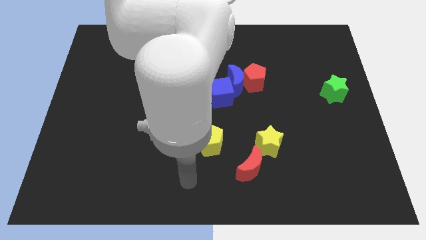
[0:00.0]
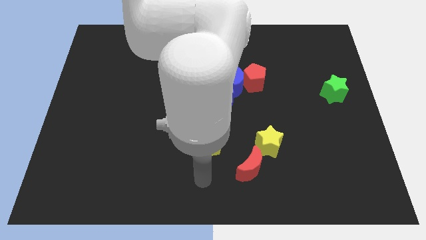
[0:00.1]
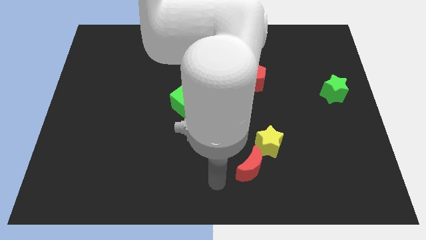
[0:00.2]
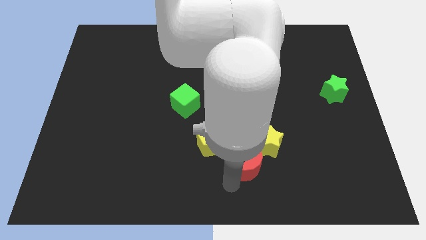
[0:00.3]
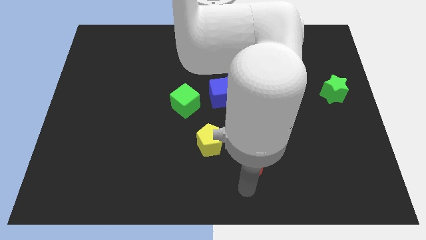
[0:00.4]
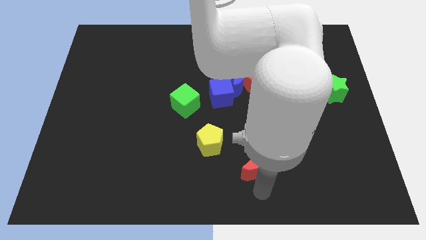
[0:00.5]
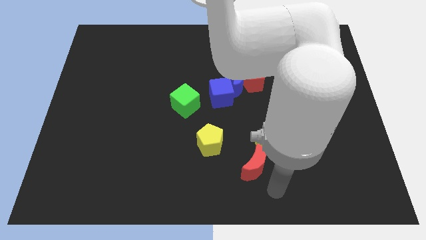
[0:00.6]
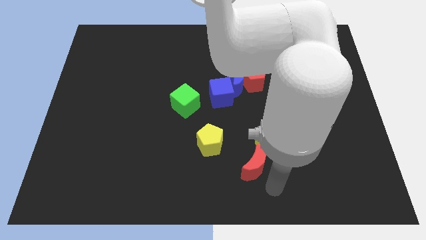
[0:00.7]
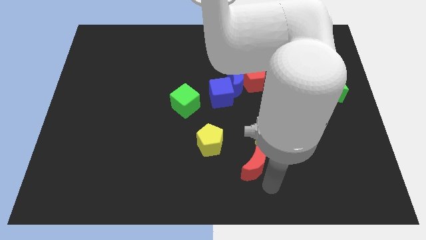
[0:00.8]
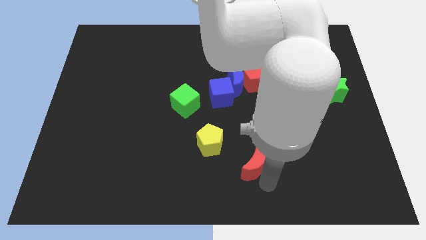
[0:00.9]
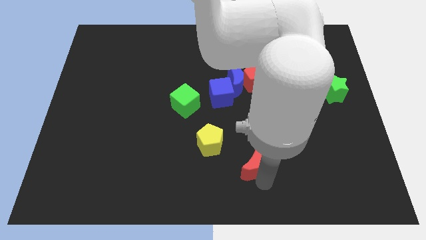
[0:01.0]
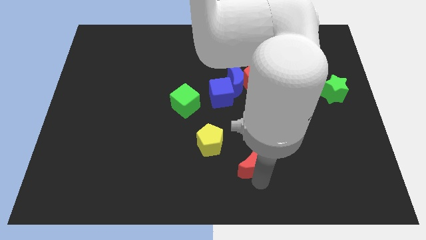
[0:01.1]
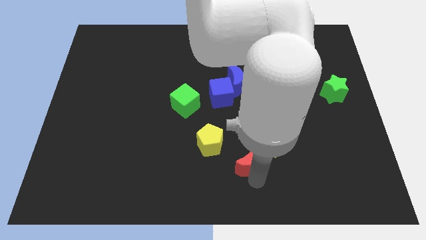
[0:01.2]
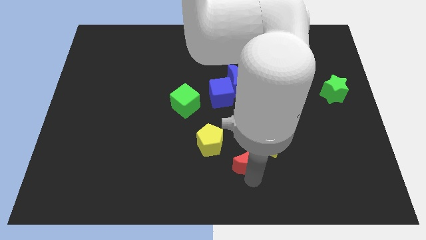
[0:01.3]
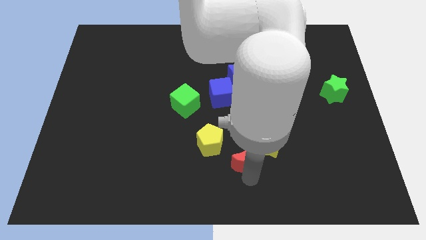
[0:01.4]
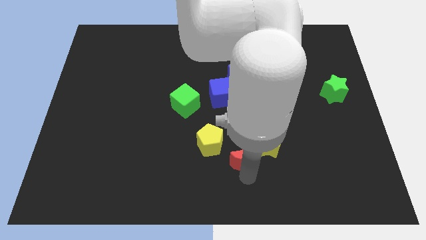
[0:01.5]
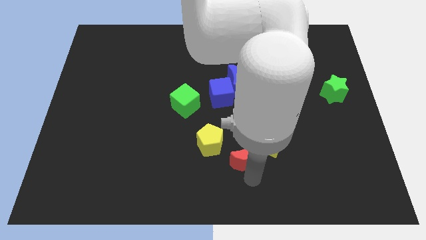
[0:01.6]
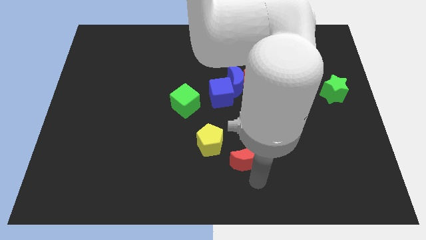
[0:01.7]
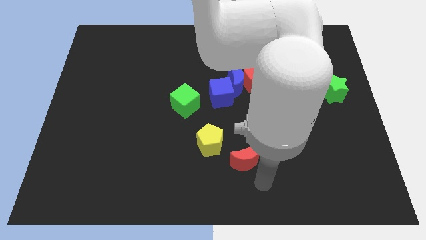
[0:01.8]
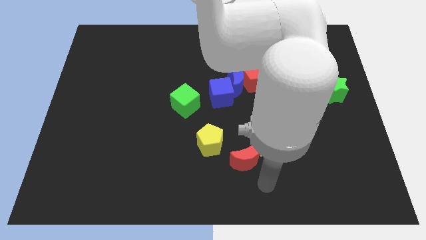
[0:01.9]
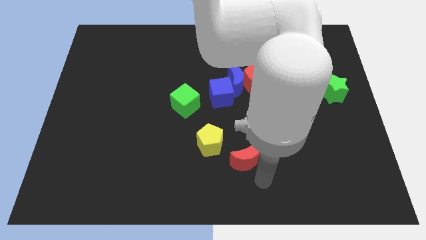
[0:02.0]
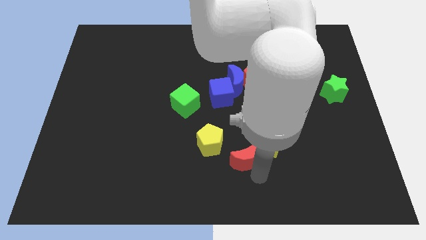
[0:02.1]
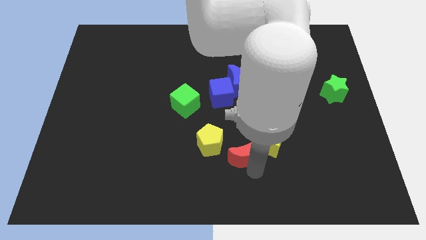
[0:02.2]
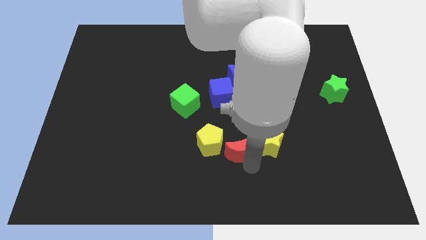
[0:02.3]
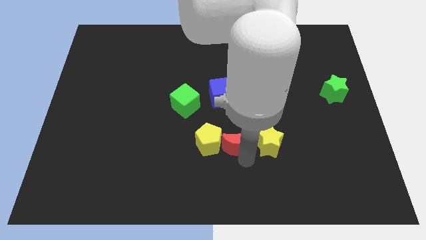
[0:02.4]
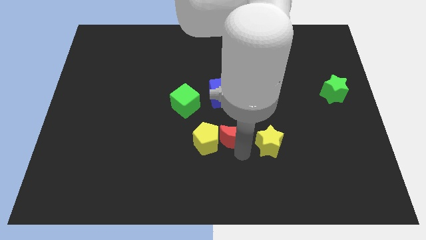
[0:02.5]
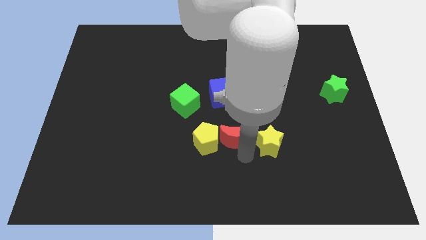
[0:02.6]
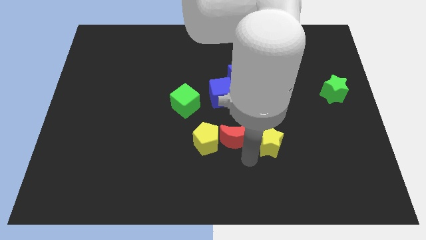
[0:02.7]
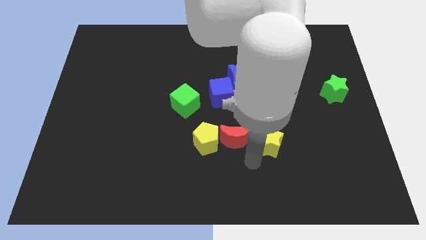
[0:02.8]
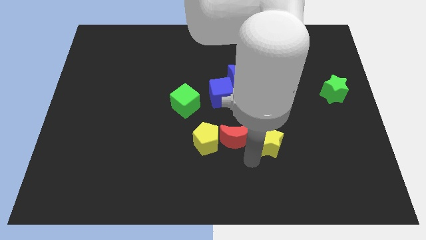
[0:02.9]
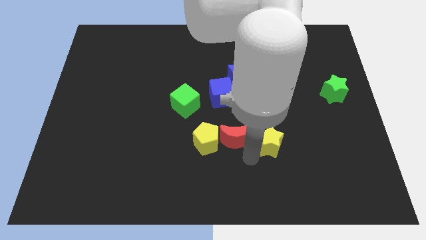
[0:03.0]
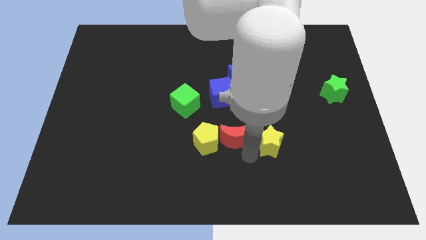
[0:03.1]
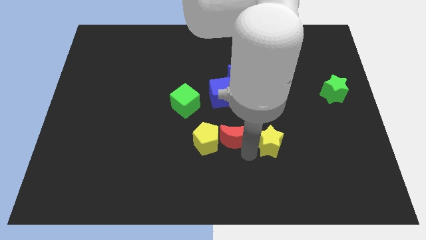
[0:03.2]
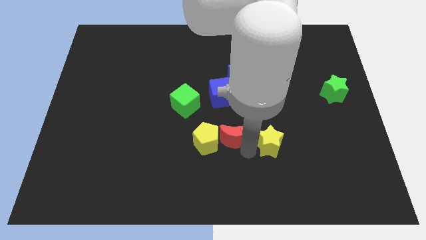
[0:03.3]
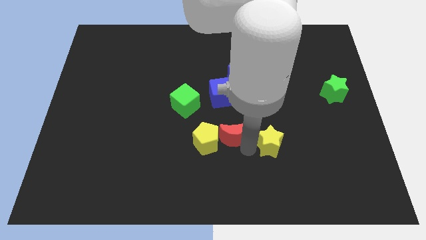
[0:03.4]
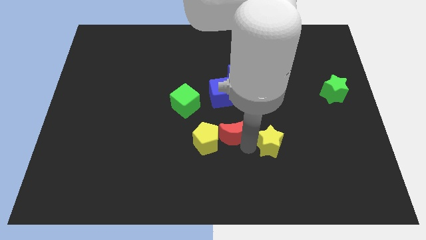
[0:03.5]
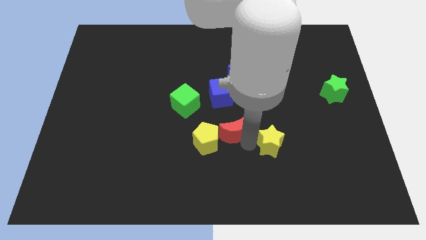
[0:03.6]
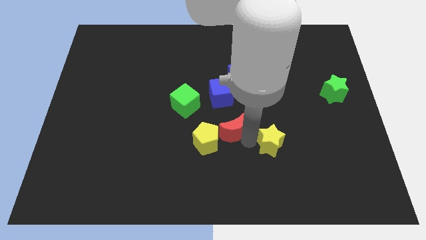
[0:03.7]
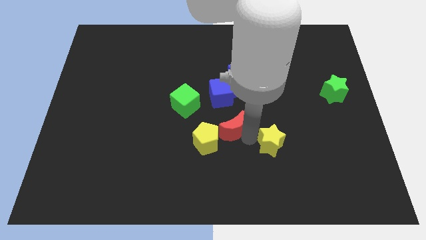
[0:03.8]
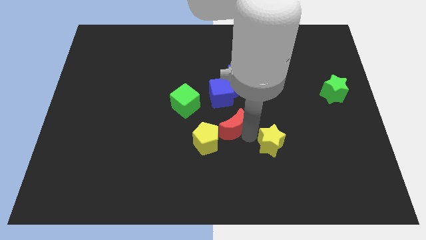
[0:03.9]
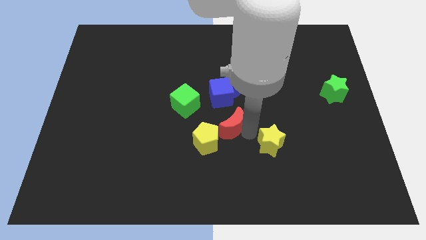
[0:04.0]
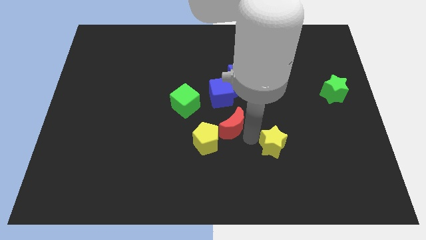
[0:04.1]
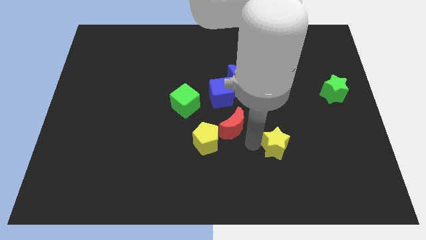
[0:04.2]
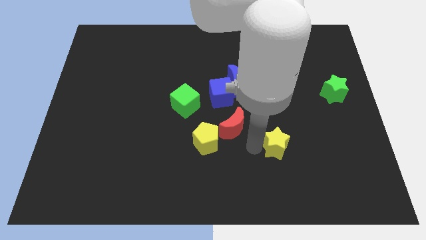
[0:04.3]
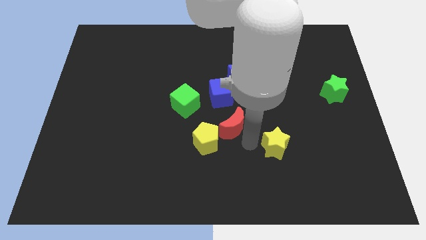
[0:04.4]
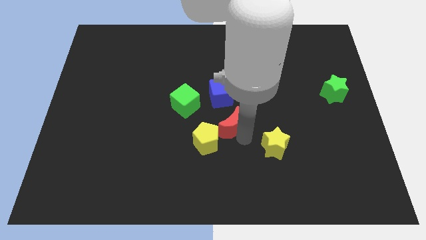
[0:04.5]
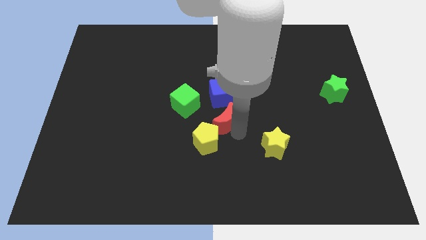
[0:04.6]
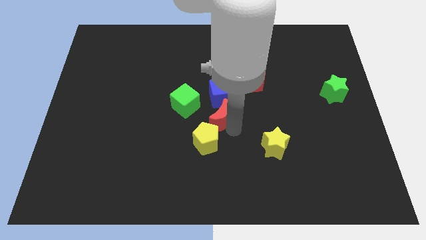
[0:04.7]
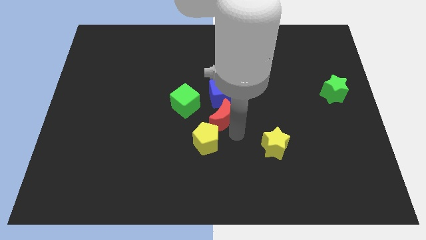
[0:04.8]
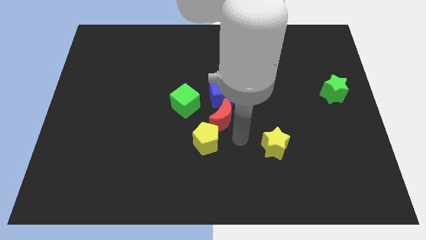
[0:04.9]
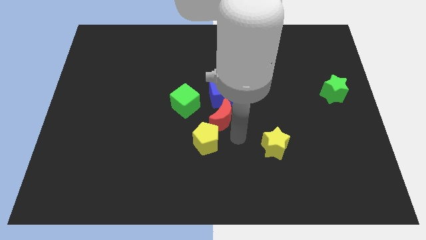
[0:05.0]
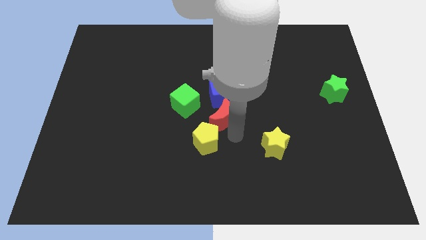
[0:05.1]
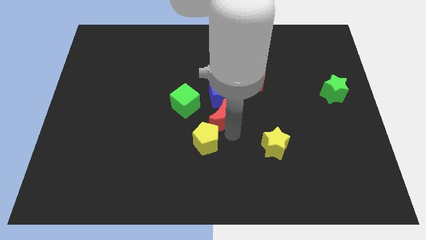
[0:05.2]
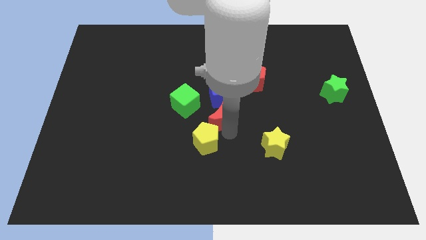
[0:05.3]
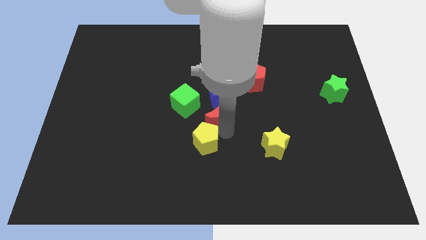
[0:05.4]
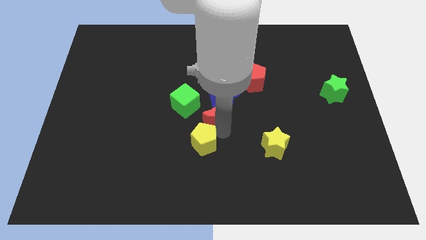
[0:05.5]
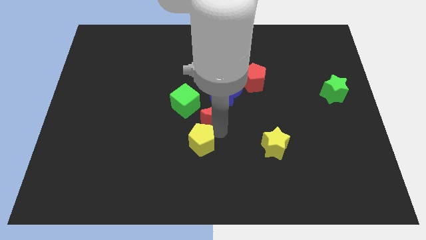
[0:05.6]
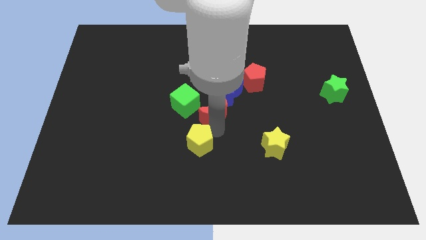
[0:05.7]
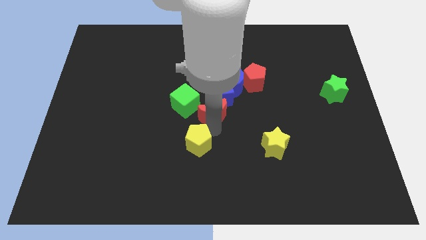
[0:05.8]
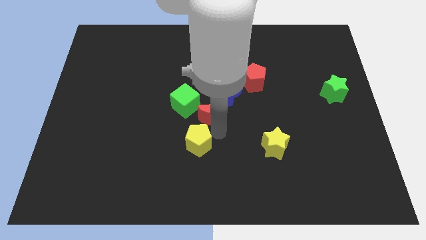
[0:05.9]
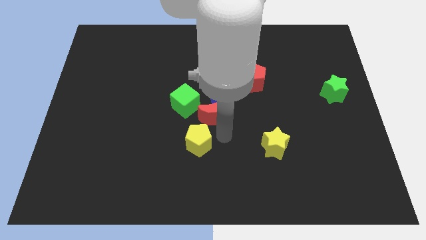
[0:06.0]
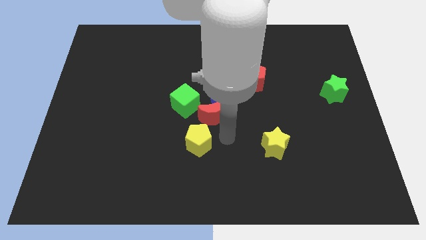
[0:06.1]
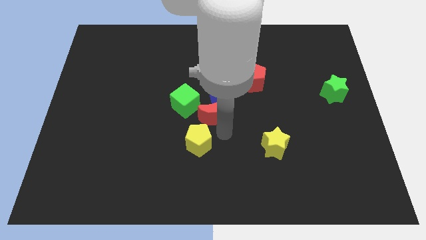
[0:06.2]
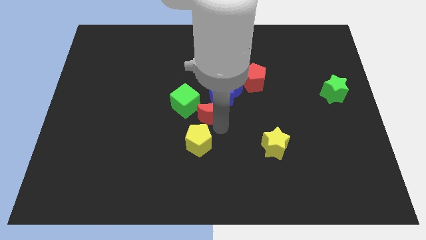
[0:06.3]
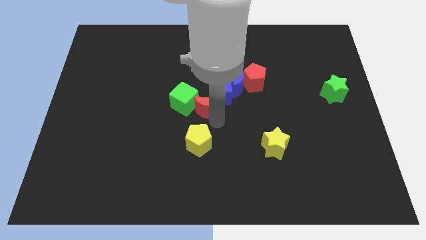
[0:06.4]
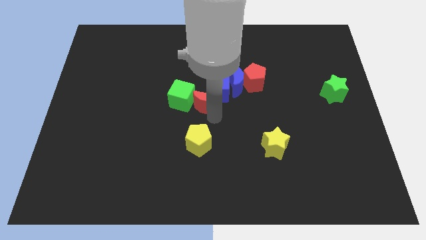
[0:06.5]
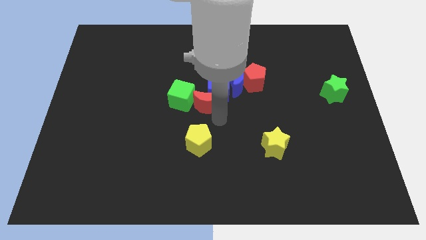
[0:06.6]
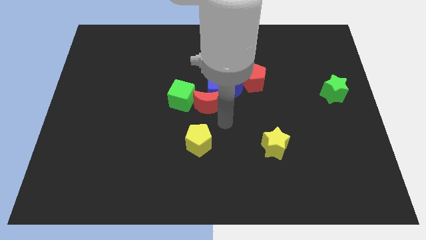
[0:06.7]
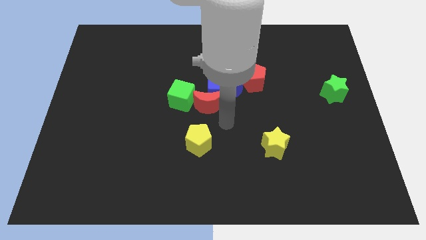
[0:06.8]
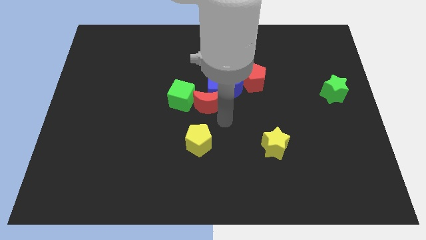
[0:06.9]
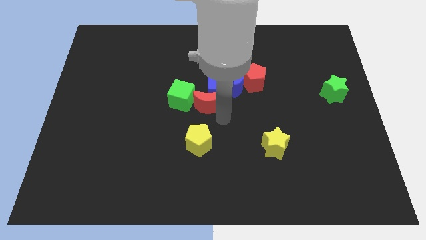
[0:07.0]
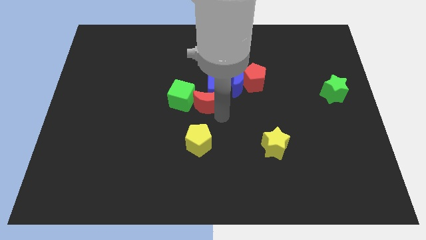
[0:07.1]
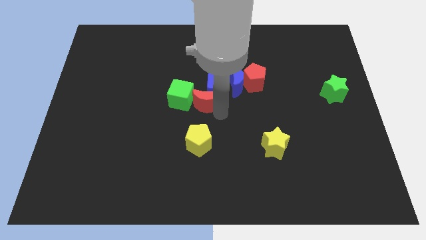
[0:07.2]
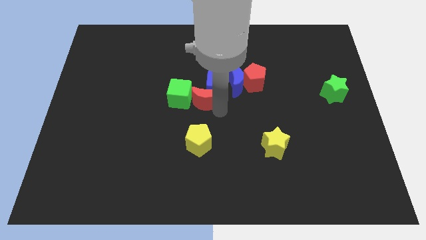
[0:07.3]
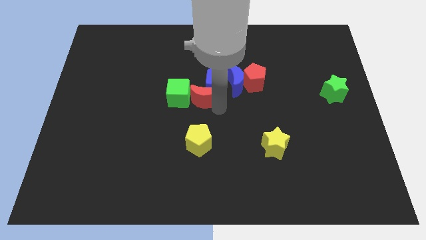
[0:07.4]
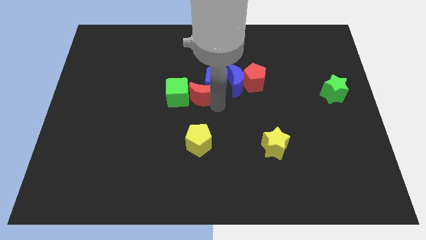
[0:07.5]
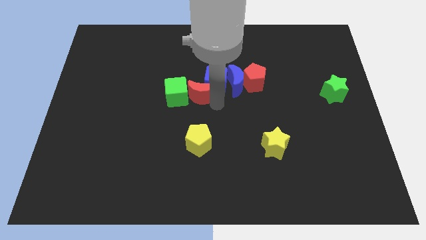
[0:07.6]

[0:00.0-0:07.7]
push the red moon upwards and left diagonally

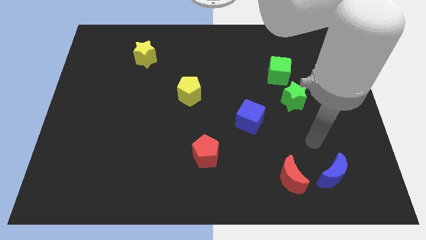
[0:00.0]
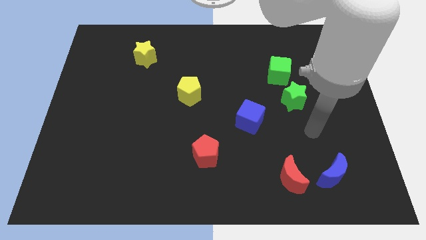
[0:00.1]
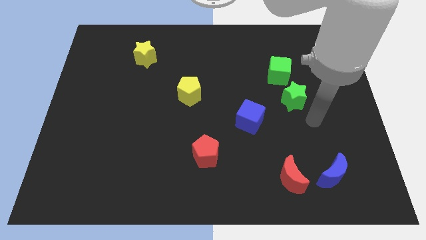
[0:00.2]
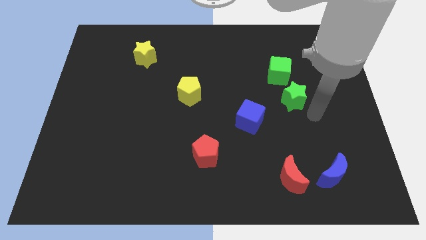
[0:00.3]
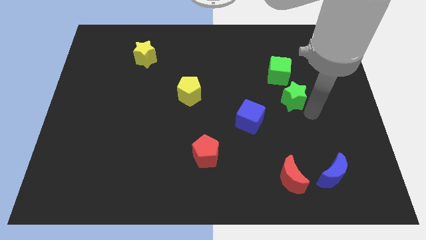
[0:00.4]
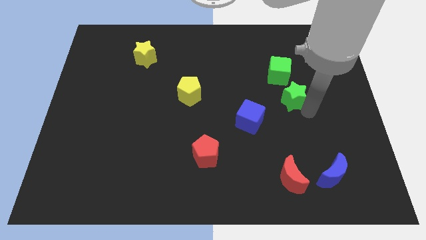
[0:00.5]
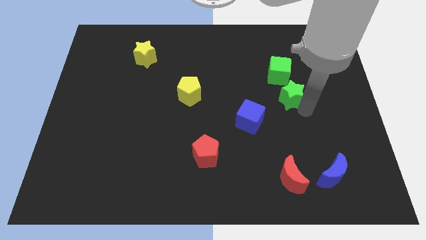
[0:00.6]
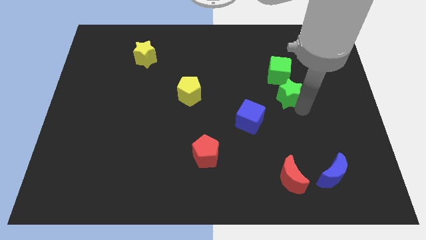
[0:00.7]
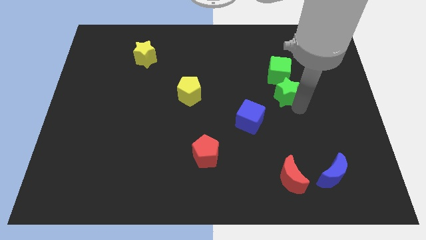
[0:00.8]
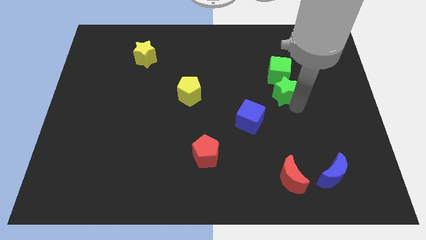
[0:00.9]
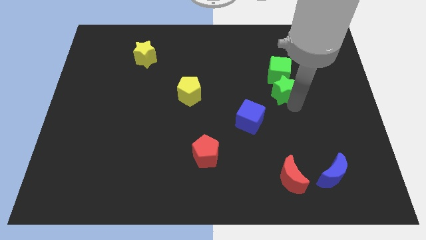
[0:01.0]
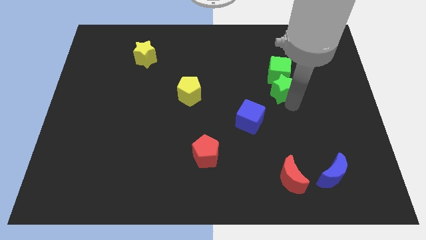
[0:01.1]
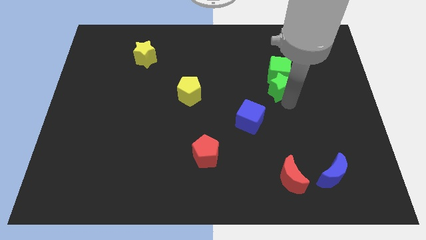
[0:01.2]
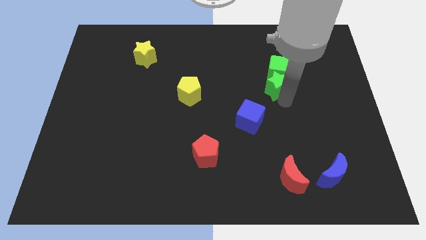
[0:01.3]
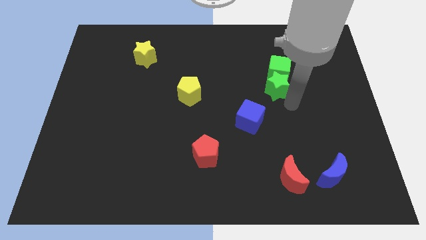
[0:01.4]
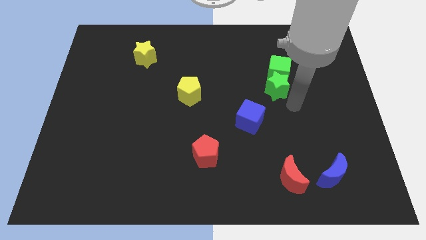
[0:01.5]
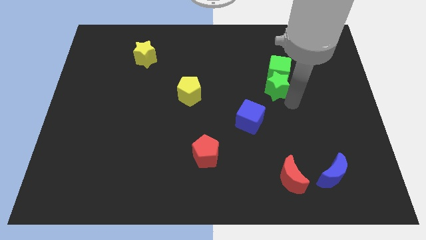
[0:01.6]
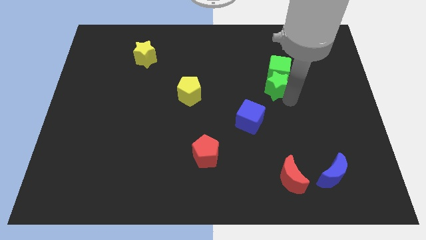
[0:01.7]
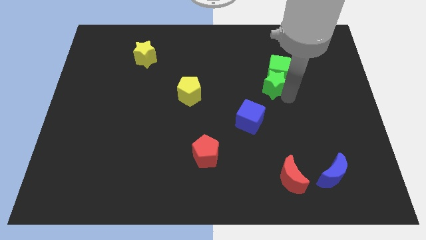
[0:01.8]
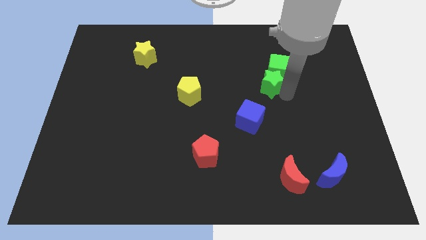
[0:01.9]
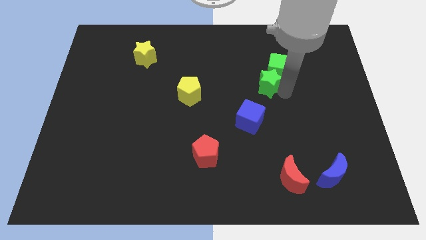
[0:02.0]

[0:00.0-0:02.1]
slightly move the green star diagonally upwards and left
